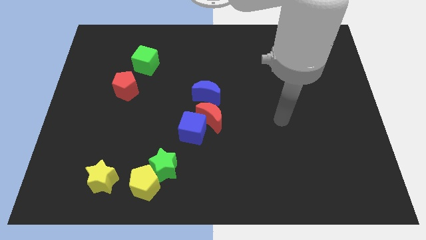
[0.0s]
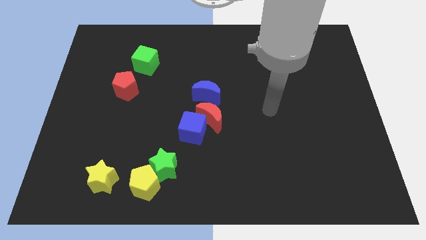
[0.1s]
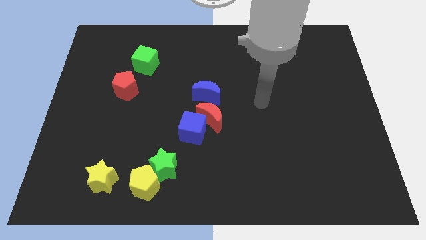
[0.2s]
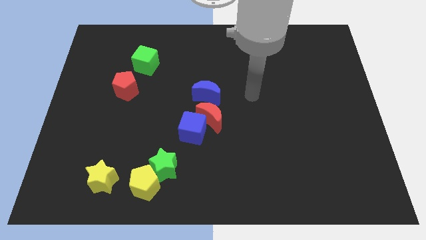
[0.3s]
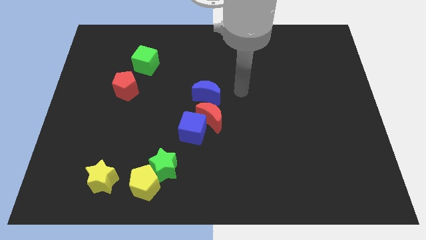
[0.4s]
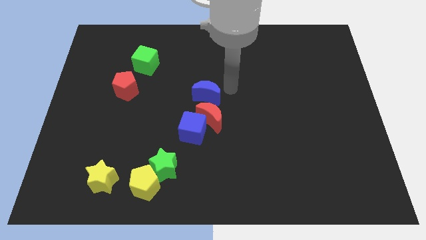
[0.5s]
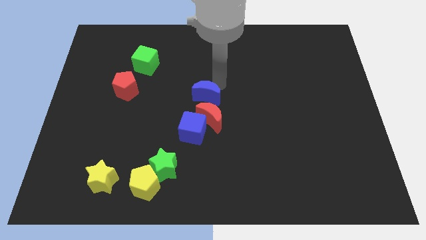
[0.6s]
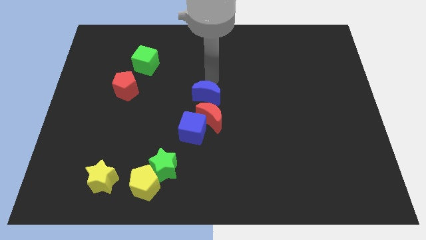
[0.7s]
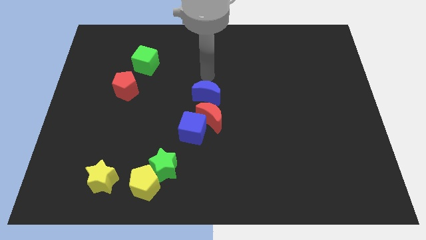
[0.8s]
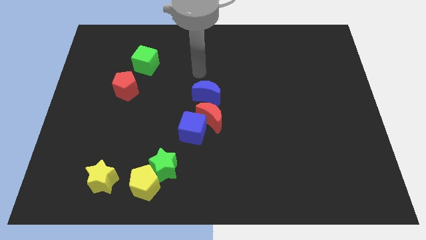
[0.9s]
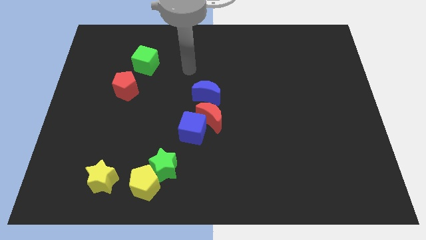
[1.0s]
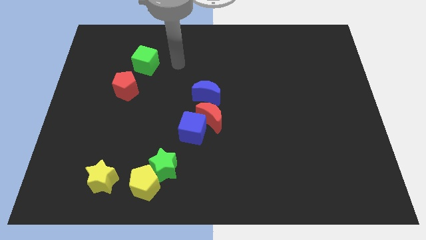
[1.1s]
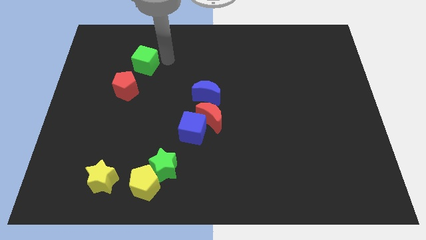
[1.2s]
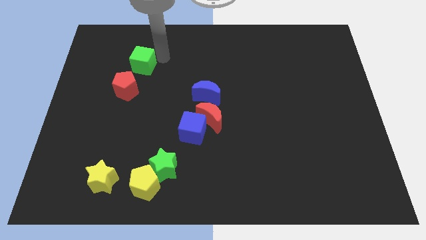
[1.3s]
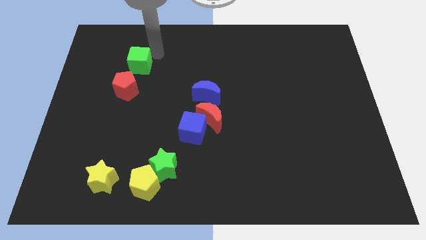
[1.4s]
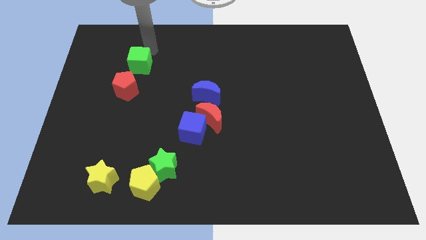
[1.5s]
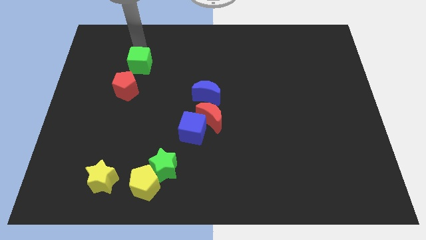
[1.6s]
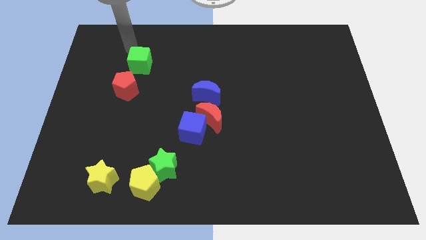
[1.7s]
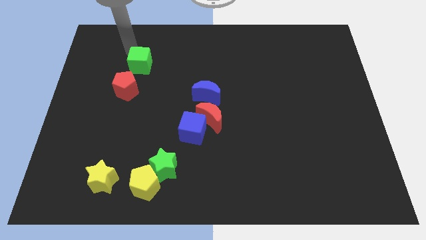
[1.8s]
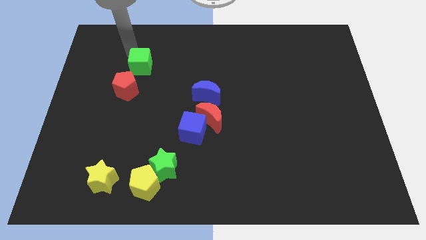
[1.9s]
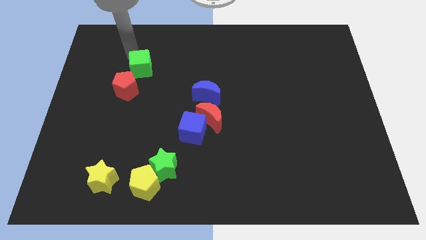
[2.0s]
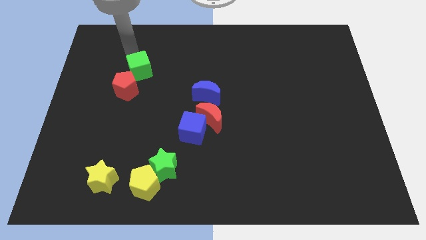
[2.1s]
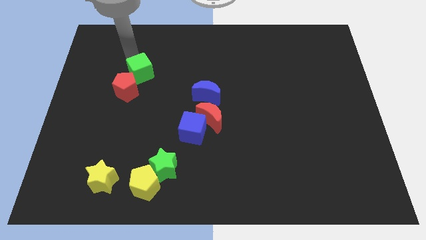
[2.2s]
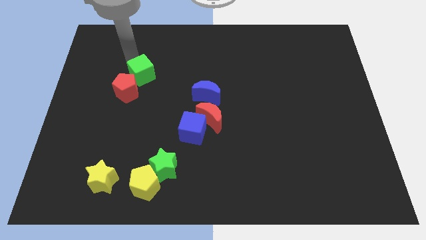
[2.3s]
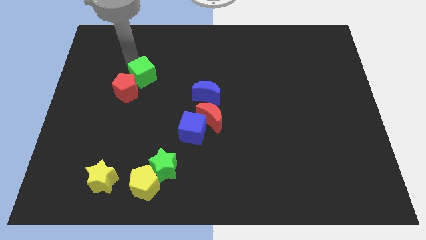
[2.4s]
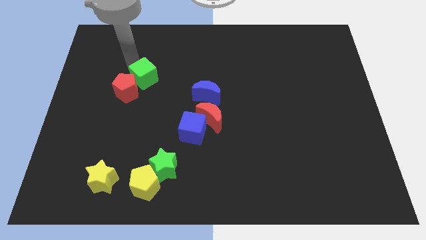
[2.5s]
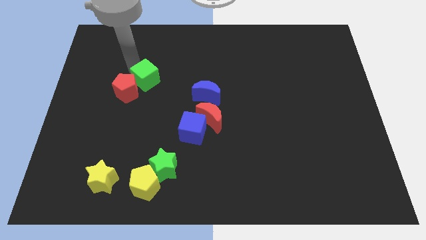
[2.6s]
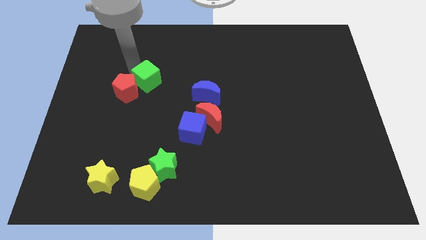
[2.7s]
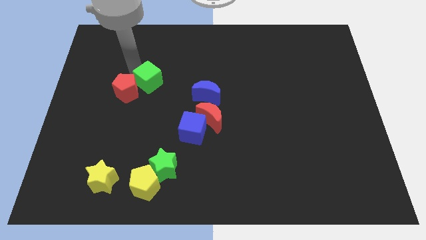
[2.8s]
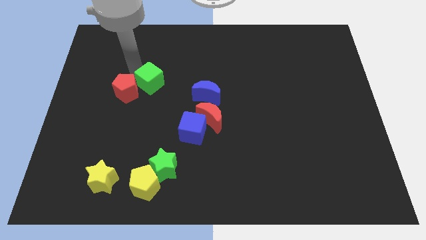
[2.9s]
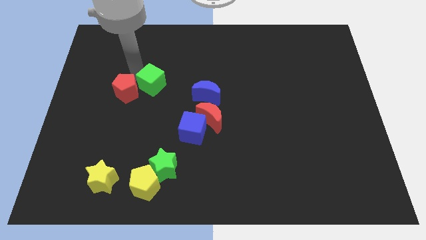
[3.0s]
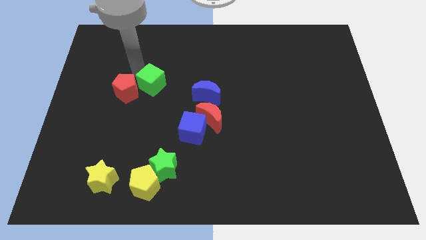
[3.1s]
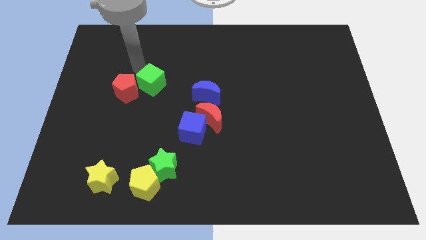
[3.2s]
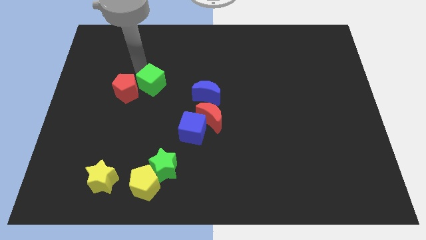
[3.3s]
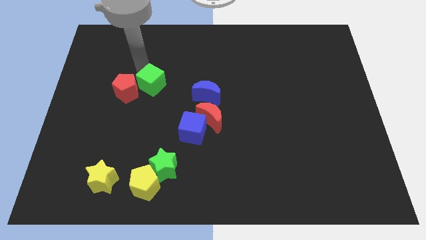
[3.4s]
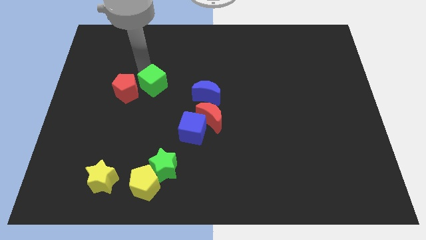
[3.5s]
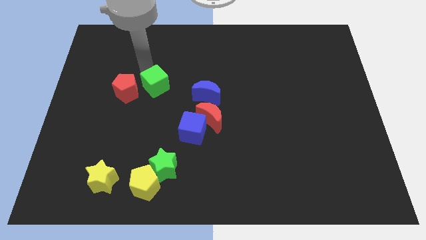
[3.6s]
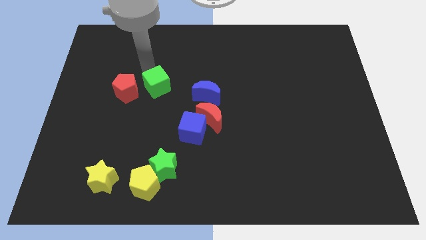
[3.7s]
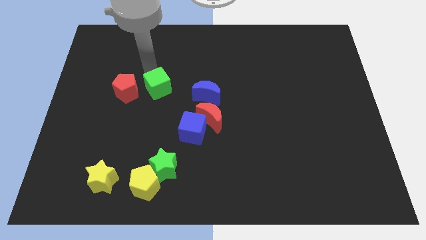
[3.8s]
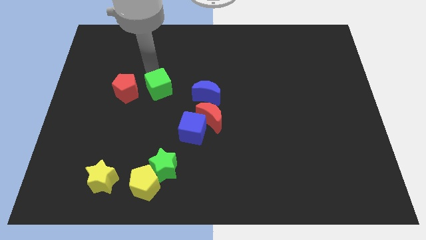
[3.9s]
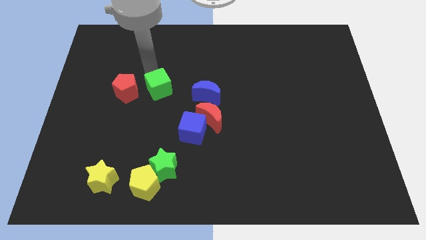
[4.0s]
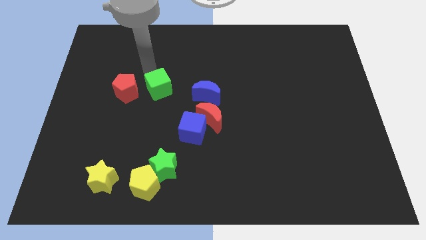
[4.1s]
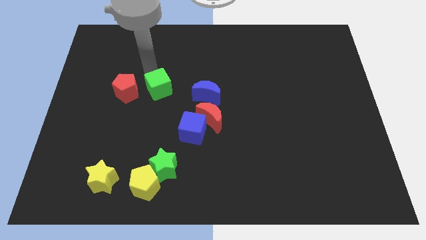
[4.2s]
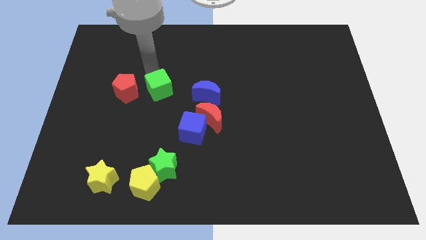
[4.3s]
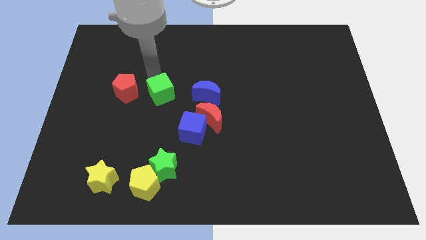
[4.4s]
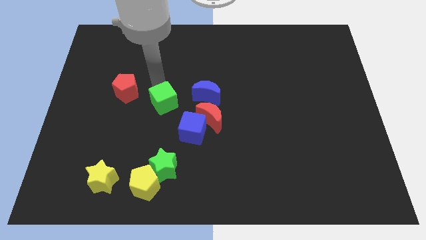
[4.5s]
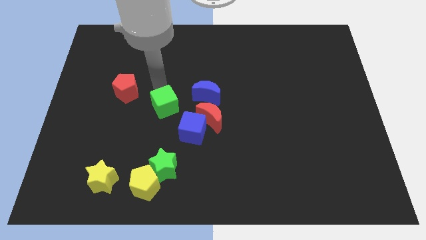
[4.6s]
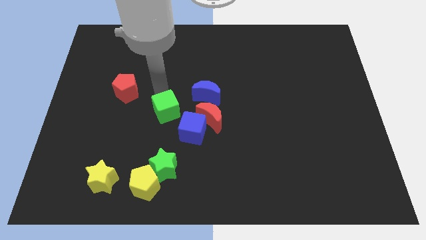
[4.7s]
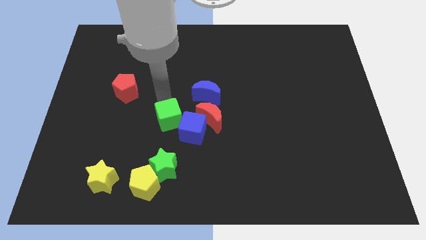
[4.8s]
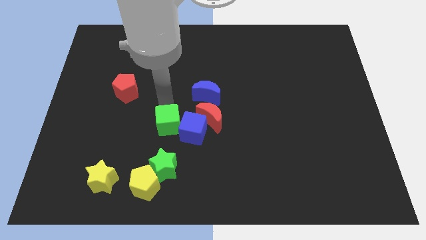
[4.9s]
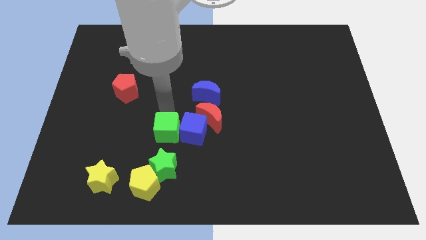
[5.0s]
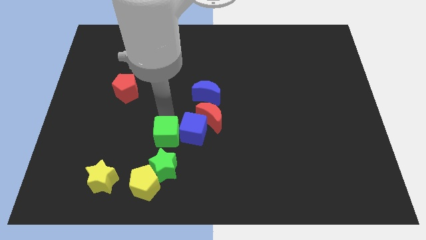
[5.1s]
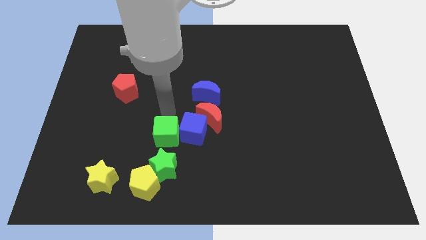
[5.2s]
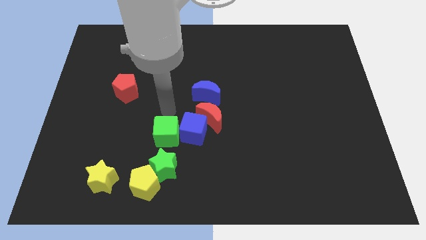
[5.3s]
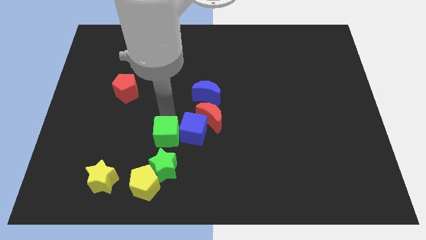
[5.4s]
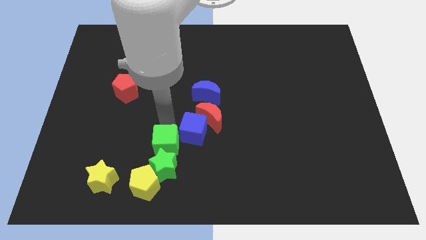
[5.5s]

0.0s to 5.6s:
push the green cube next to the green star

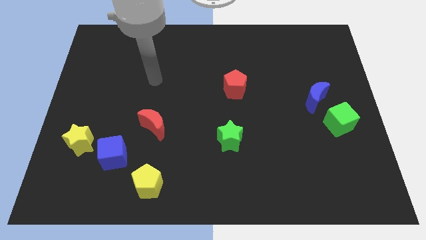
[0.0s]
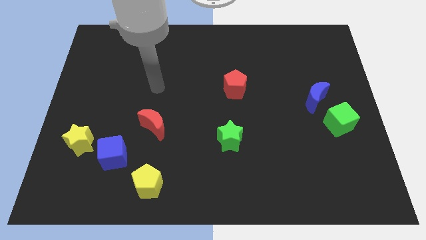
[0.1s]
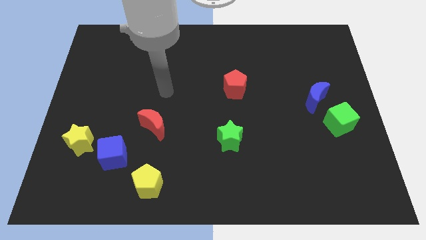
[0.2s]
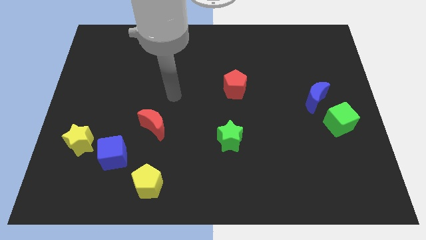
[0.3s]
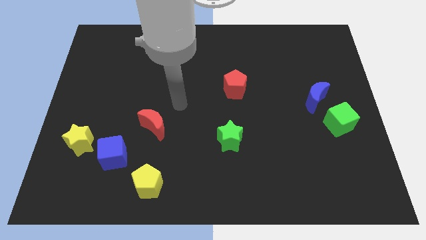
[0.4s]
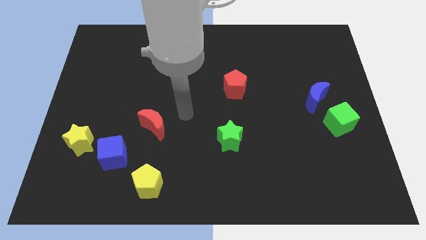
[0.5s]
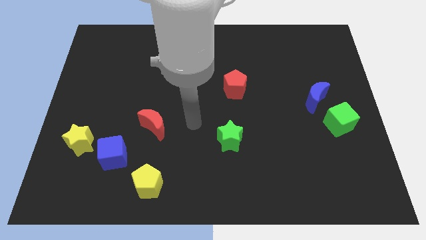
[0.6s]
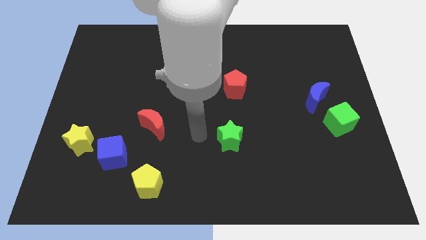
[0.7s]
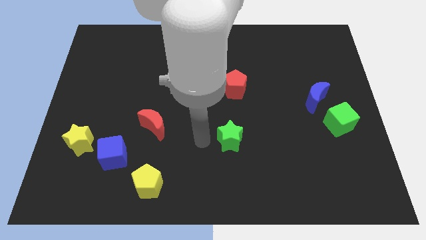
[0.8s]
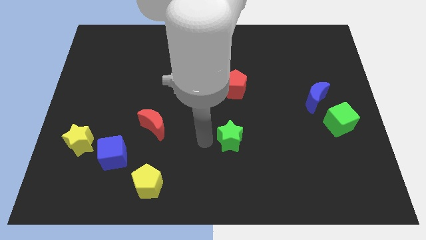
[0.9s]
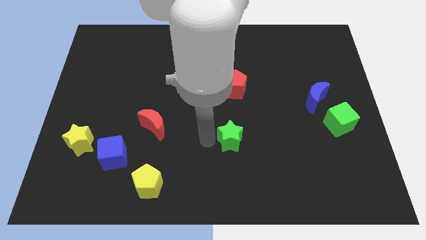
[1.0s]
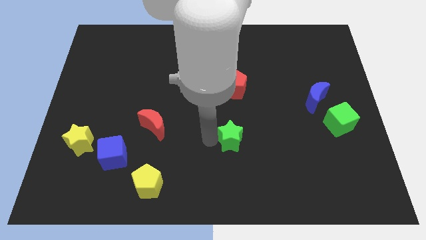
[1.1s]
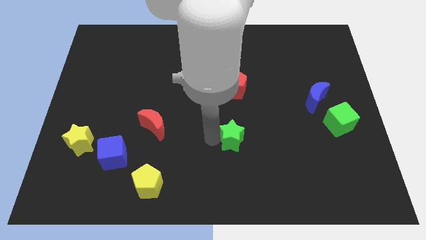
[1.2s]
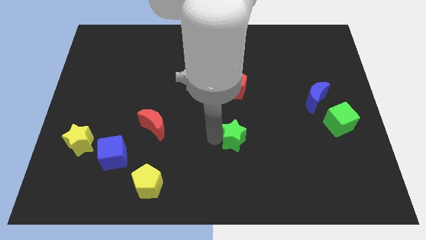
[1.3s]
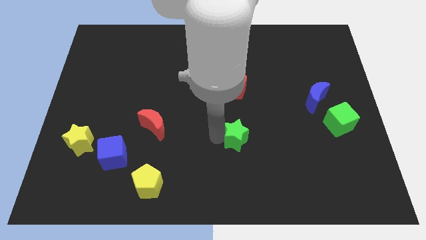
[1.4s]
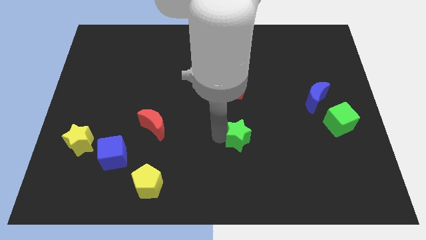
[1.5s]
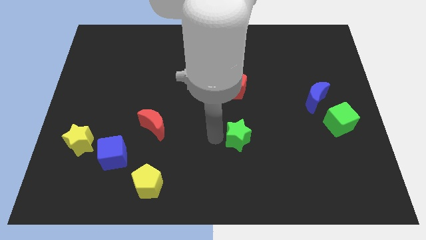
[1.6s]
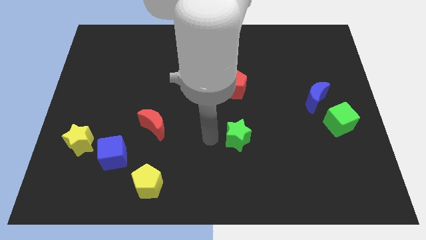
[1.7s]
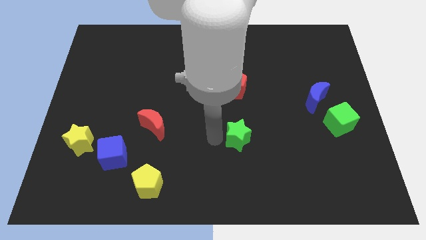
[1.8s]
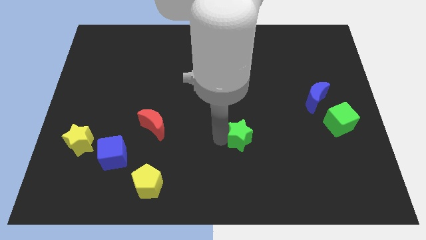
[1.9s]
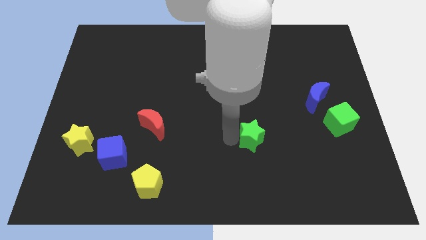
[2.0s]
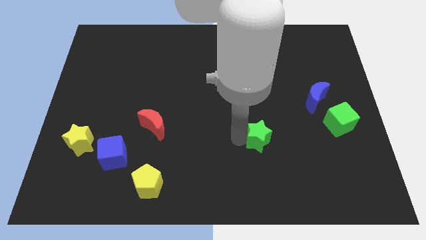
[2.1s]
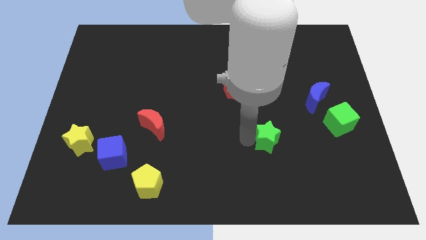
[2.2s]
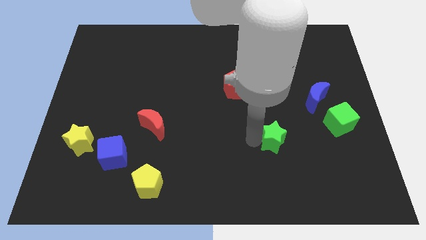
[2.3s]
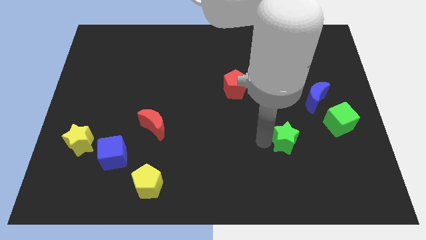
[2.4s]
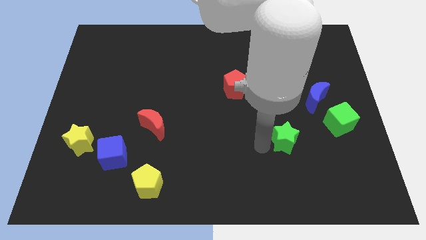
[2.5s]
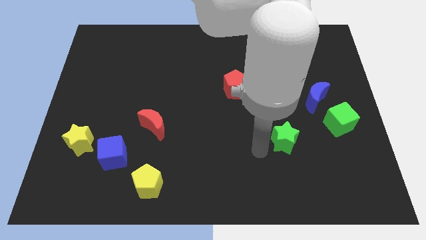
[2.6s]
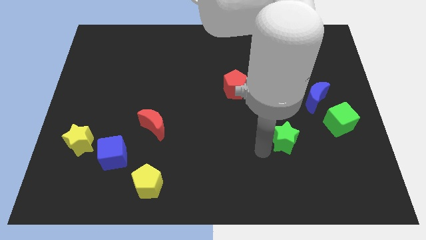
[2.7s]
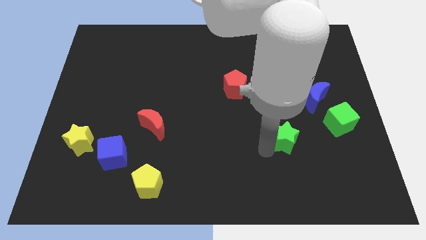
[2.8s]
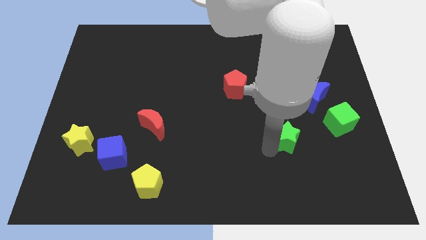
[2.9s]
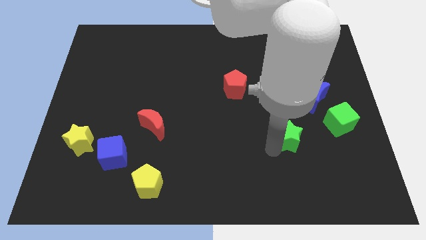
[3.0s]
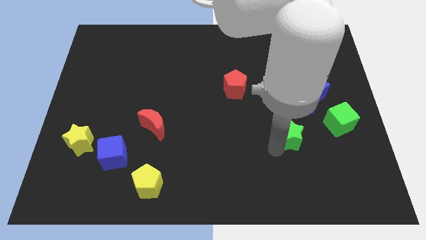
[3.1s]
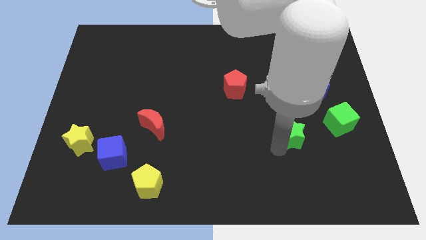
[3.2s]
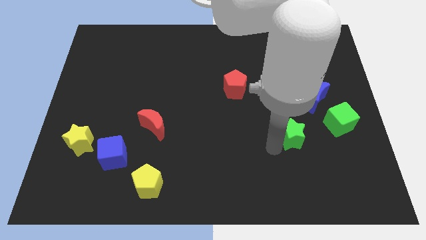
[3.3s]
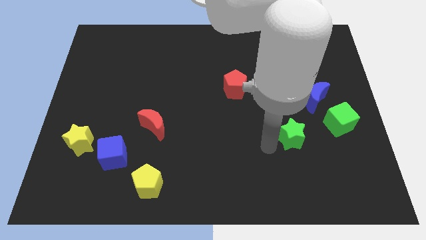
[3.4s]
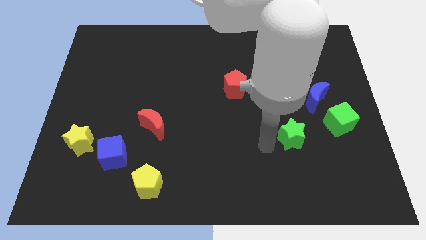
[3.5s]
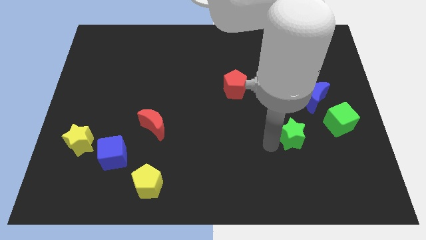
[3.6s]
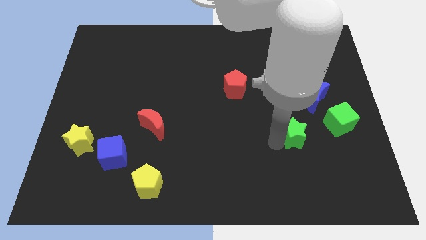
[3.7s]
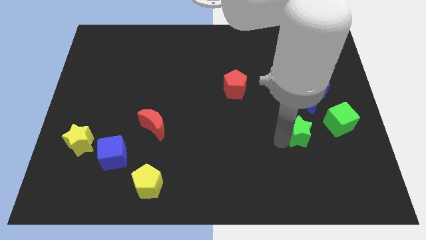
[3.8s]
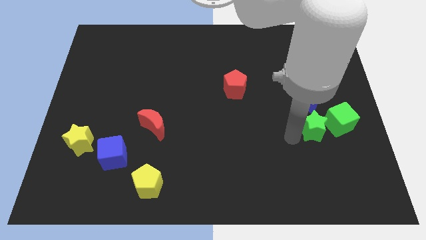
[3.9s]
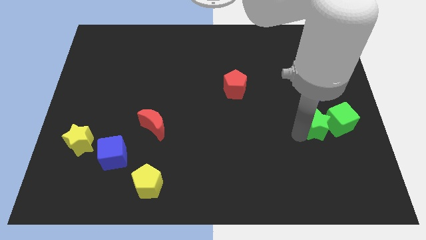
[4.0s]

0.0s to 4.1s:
move the green star next to the green cube
